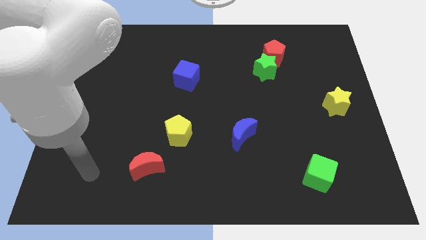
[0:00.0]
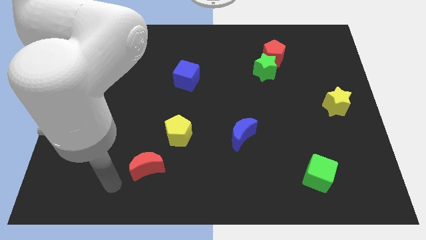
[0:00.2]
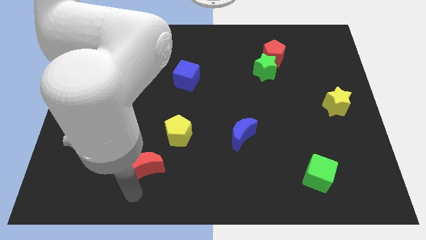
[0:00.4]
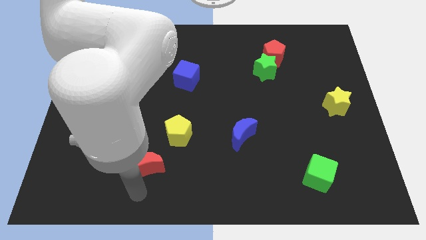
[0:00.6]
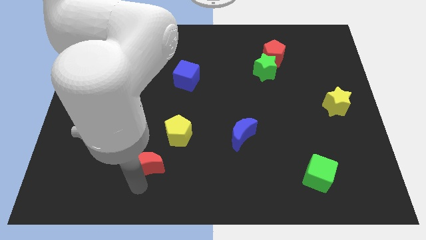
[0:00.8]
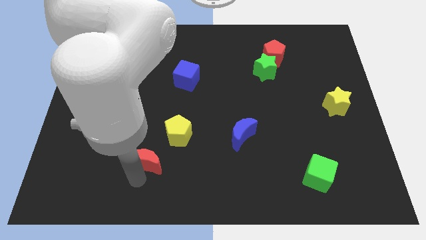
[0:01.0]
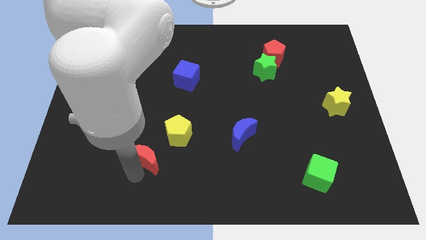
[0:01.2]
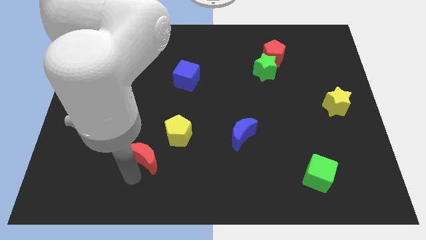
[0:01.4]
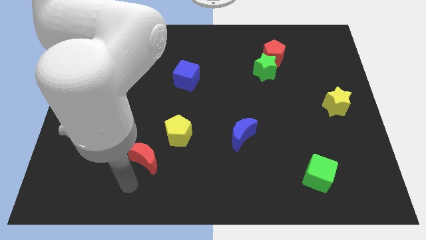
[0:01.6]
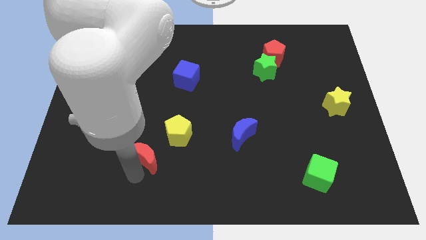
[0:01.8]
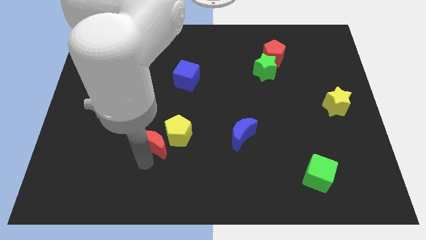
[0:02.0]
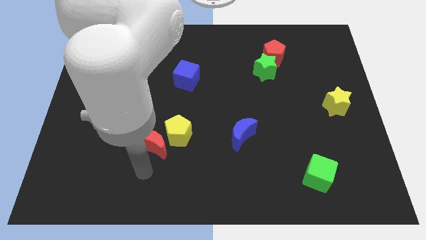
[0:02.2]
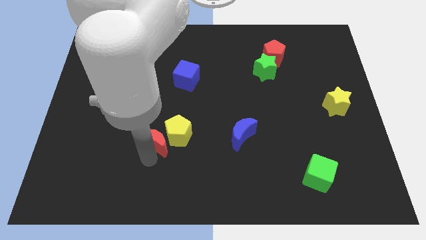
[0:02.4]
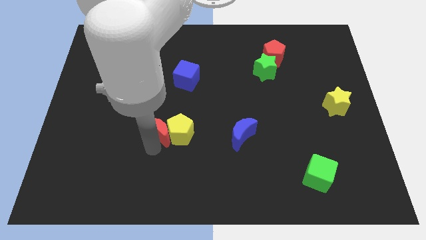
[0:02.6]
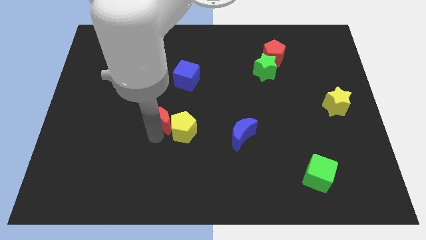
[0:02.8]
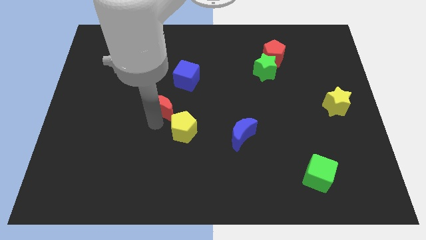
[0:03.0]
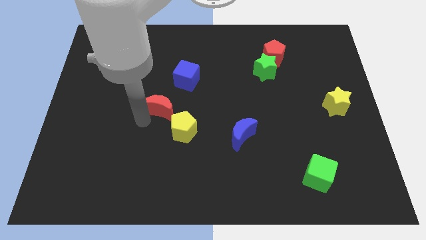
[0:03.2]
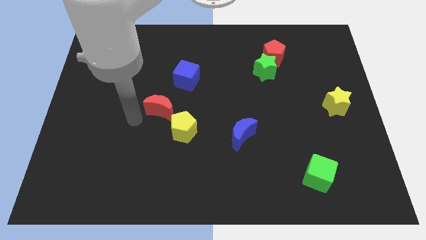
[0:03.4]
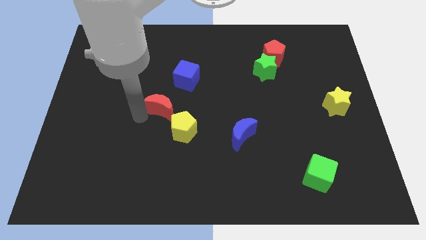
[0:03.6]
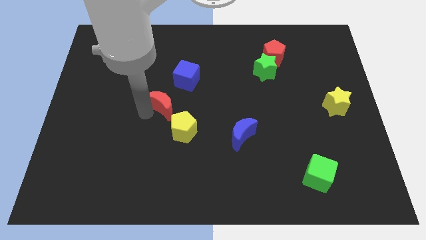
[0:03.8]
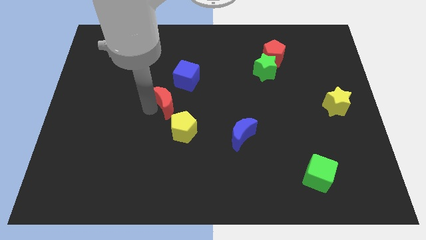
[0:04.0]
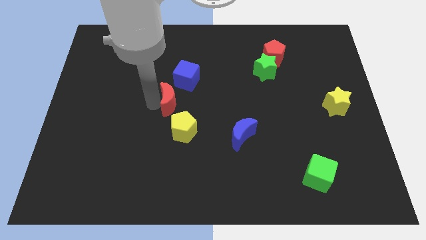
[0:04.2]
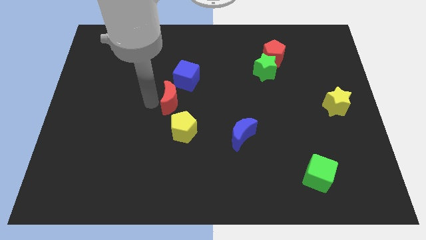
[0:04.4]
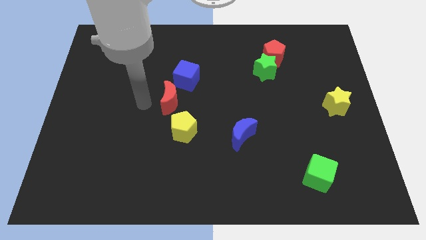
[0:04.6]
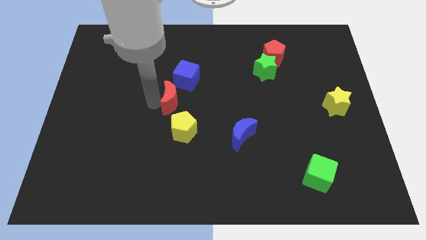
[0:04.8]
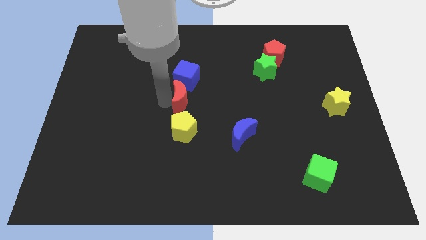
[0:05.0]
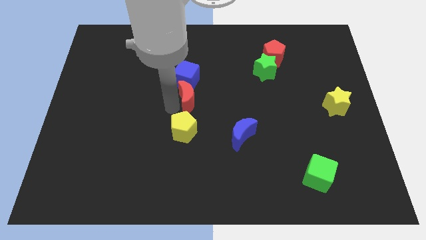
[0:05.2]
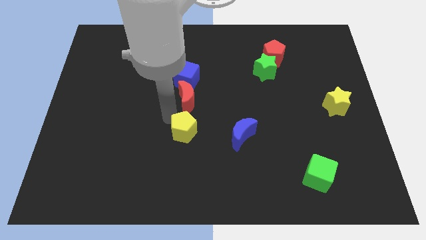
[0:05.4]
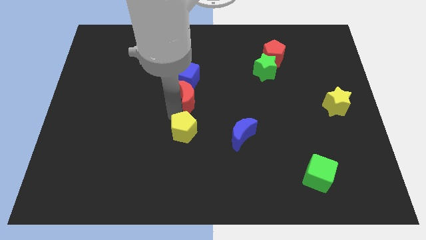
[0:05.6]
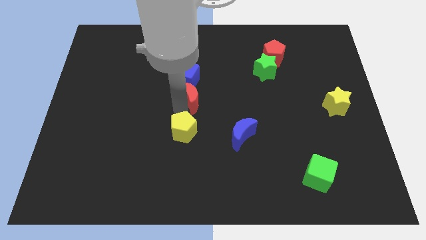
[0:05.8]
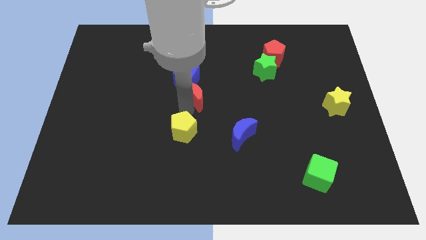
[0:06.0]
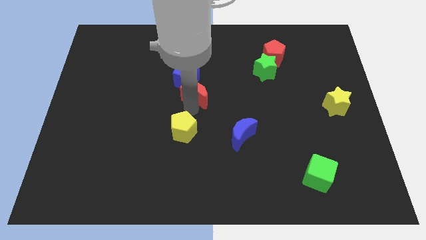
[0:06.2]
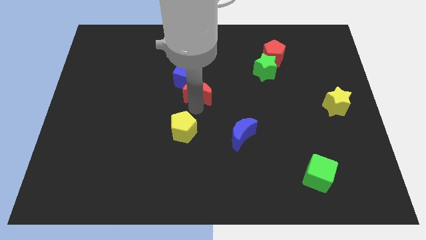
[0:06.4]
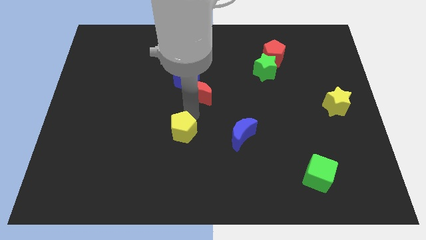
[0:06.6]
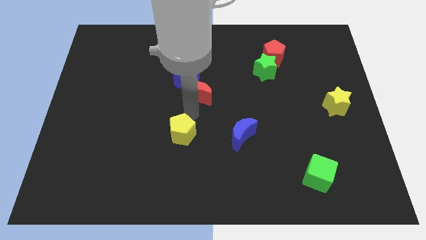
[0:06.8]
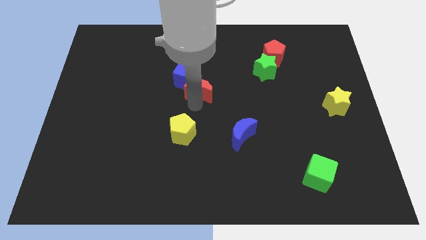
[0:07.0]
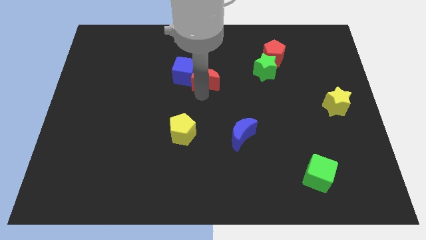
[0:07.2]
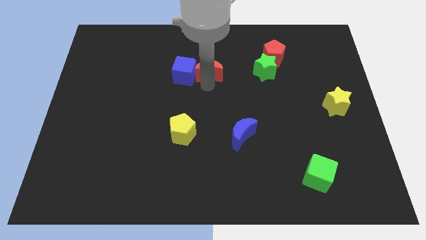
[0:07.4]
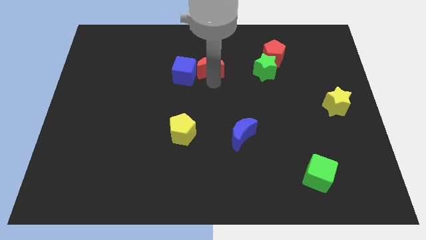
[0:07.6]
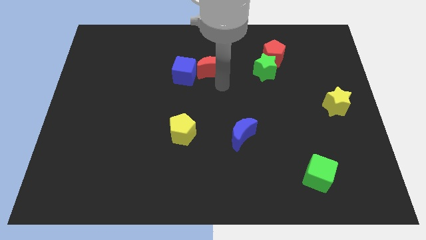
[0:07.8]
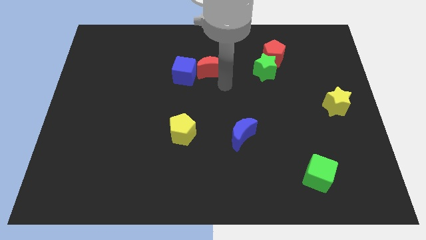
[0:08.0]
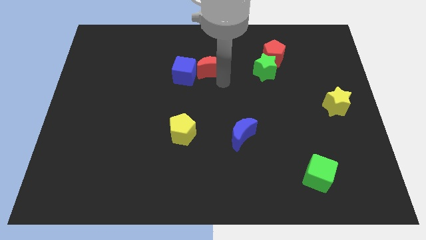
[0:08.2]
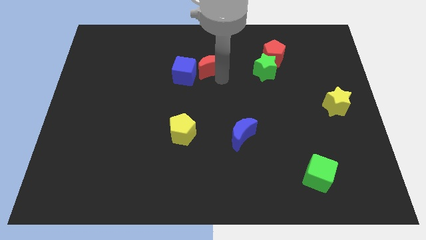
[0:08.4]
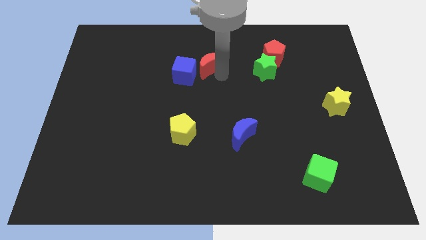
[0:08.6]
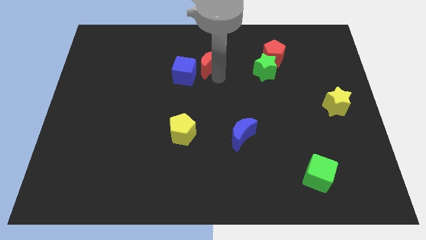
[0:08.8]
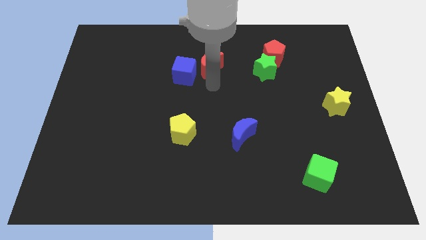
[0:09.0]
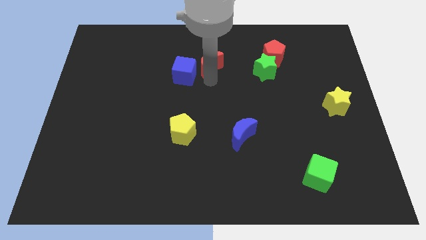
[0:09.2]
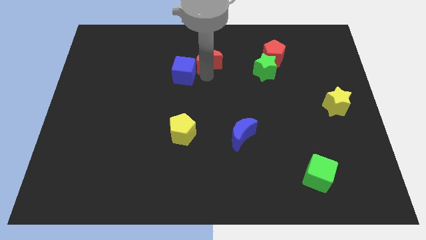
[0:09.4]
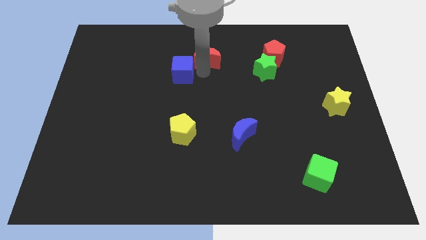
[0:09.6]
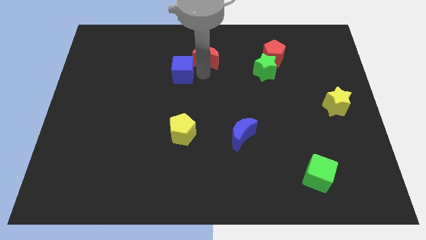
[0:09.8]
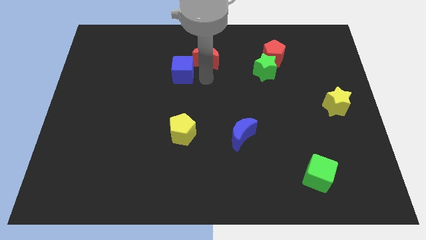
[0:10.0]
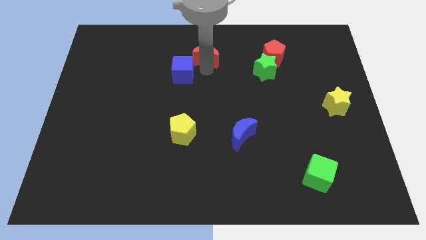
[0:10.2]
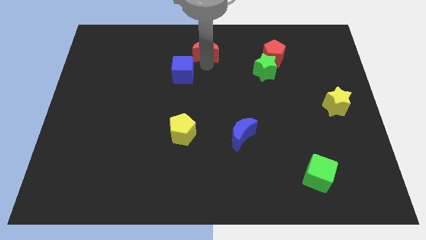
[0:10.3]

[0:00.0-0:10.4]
slide the red moon to the top side

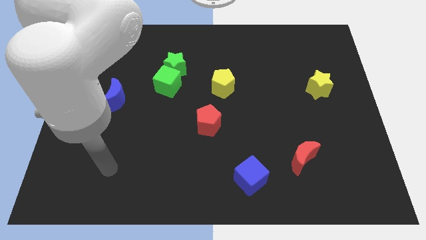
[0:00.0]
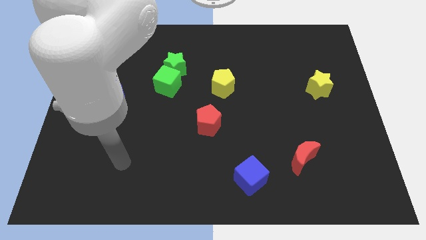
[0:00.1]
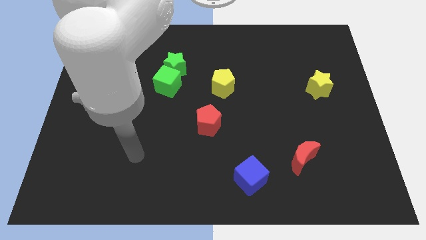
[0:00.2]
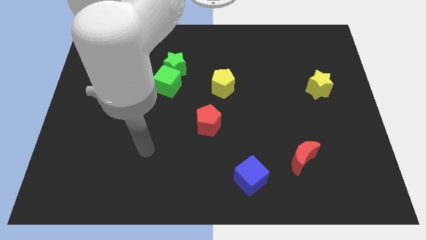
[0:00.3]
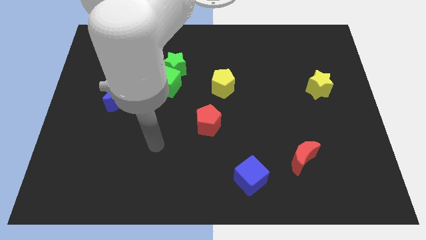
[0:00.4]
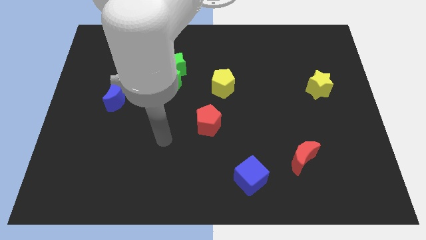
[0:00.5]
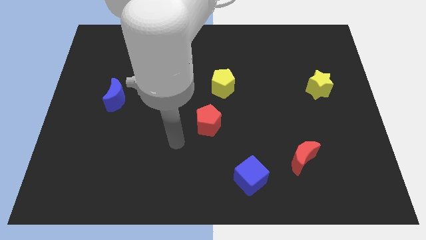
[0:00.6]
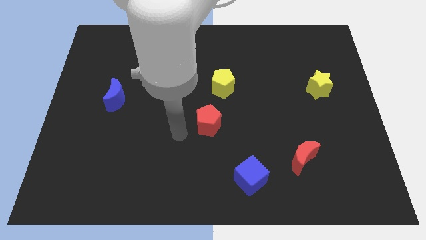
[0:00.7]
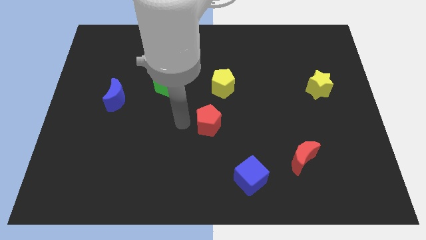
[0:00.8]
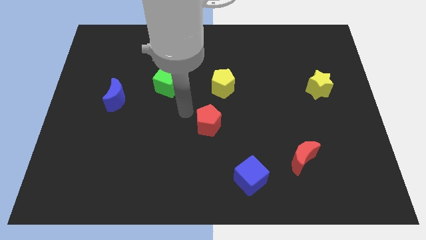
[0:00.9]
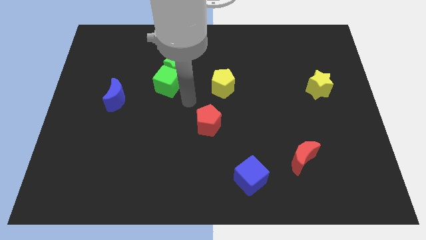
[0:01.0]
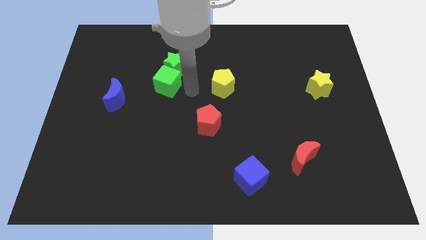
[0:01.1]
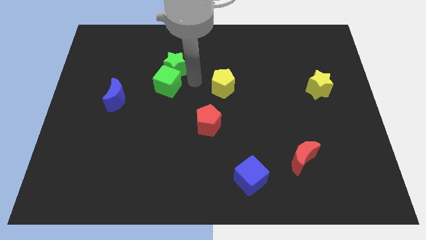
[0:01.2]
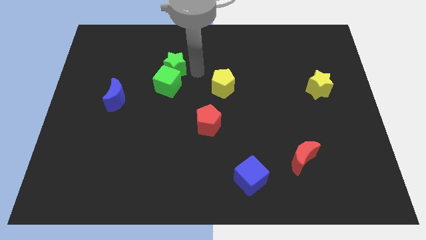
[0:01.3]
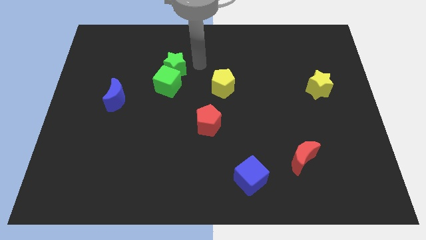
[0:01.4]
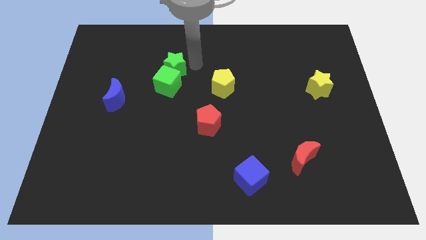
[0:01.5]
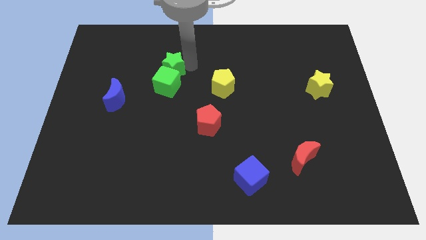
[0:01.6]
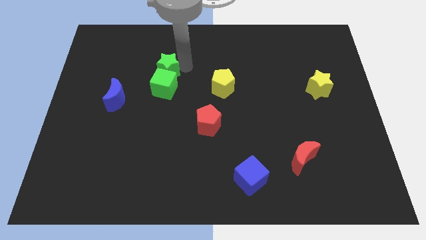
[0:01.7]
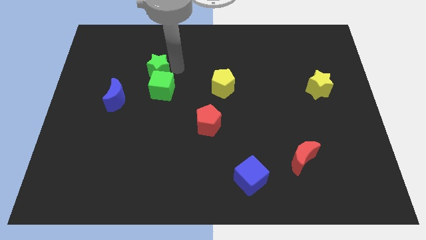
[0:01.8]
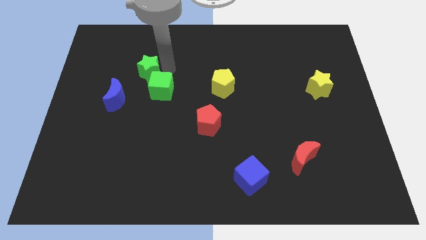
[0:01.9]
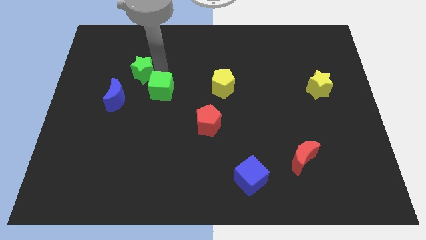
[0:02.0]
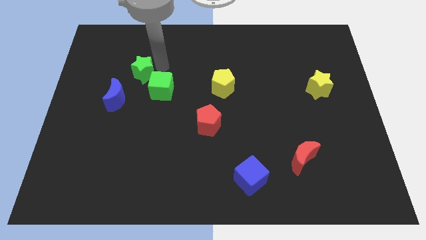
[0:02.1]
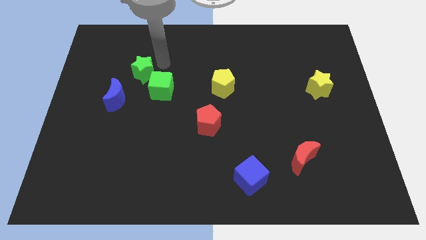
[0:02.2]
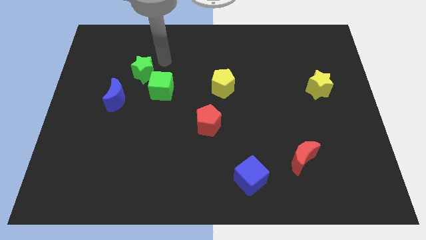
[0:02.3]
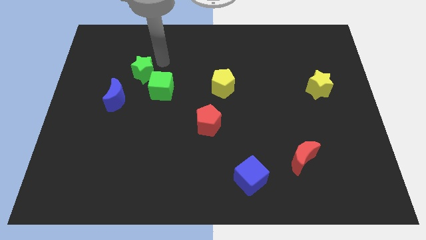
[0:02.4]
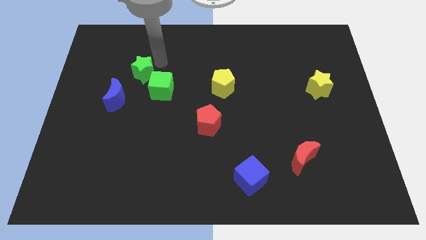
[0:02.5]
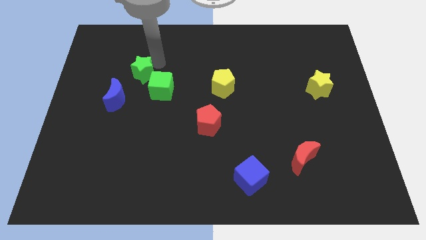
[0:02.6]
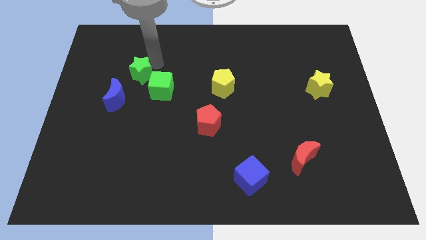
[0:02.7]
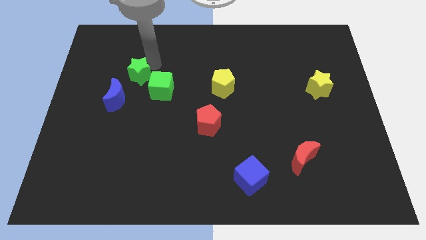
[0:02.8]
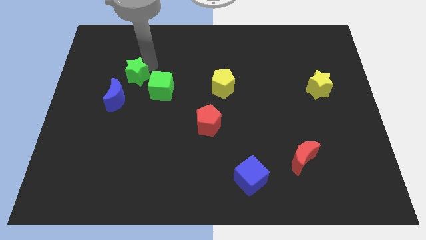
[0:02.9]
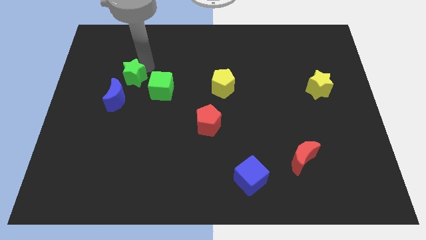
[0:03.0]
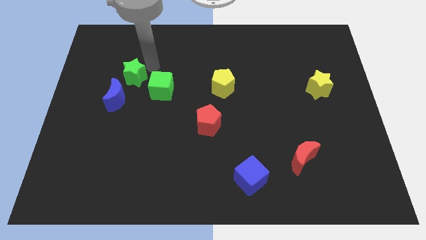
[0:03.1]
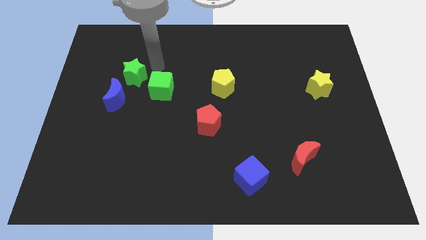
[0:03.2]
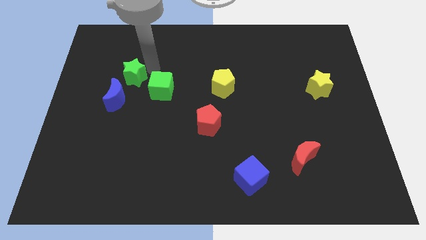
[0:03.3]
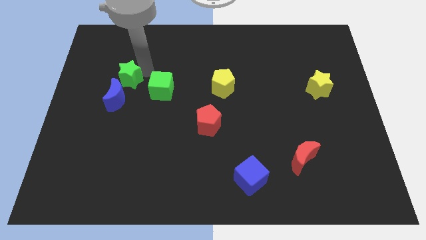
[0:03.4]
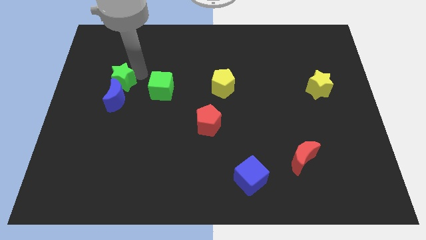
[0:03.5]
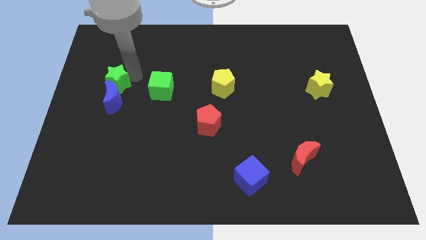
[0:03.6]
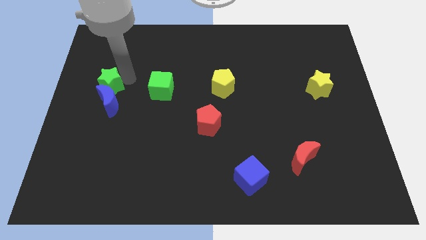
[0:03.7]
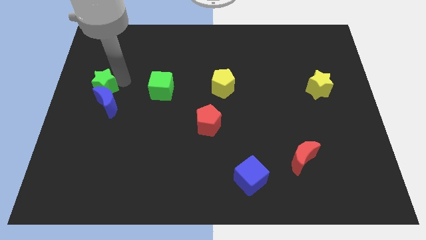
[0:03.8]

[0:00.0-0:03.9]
push the green star to the left side of the board
